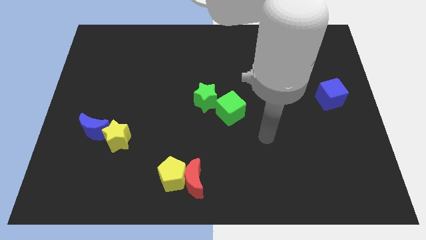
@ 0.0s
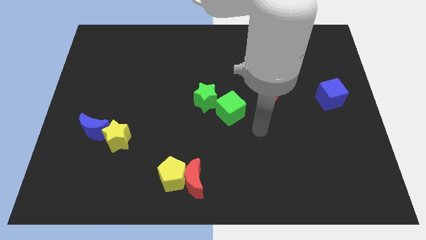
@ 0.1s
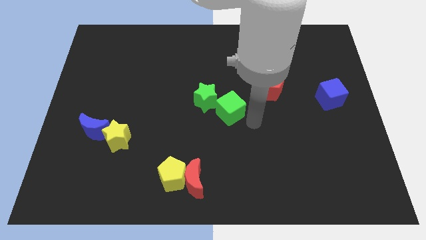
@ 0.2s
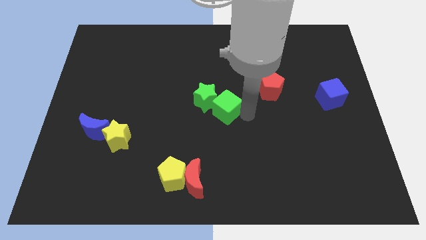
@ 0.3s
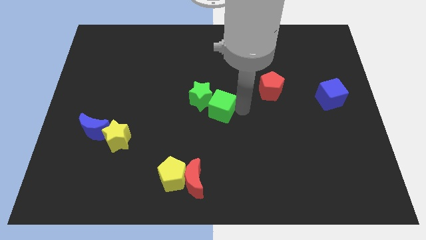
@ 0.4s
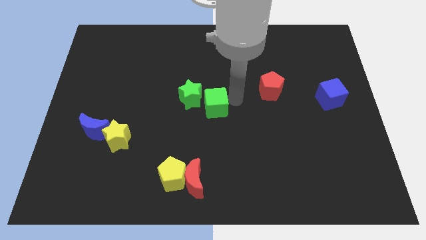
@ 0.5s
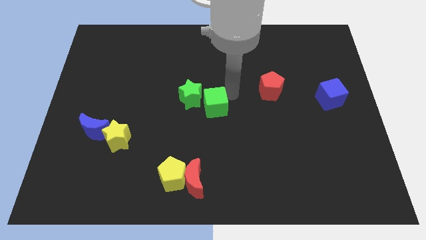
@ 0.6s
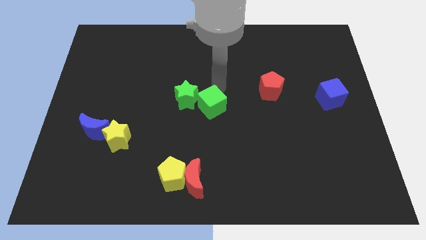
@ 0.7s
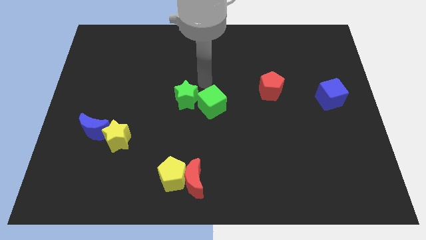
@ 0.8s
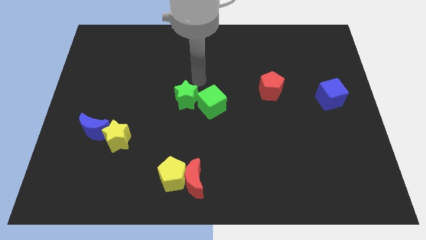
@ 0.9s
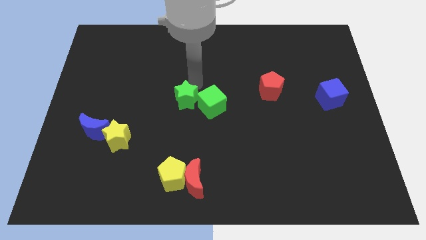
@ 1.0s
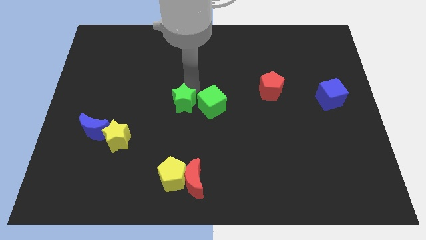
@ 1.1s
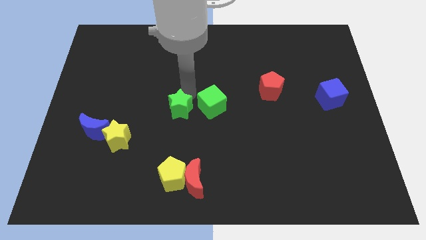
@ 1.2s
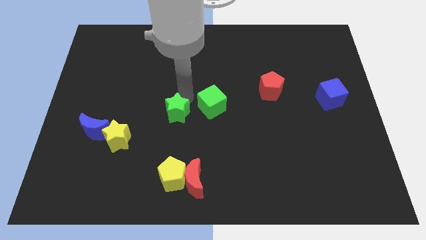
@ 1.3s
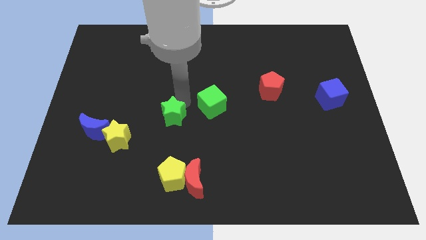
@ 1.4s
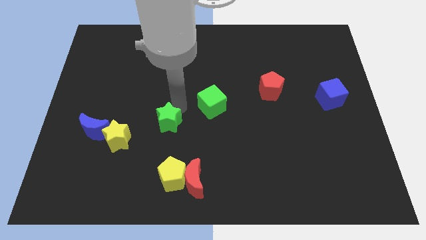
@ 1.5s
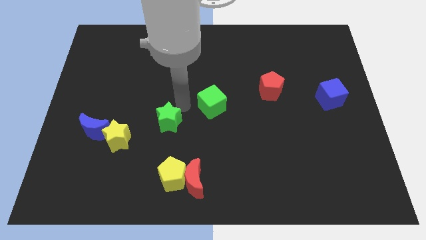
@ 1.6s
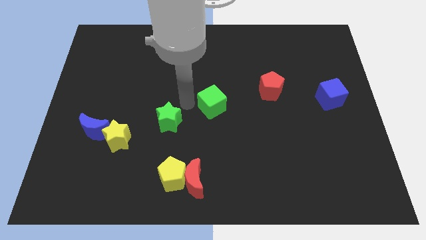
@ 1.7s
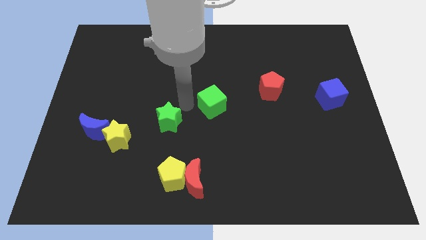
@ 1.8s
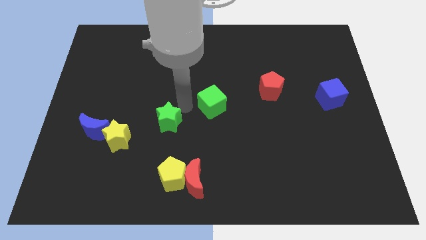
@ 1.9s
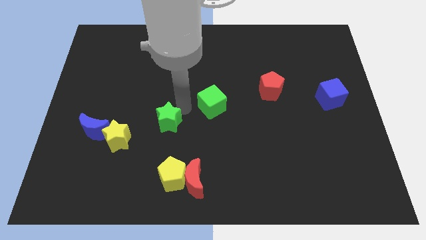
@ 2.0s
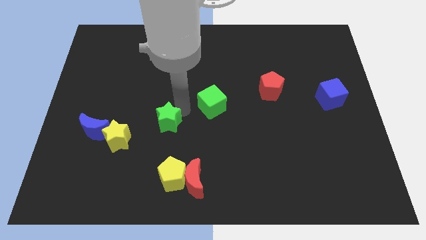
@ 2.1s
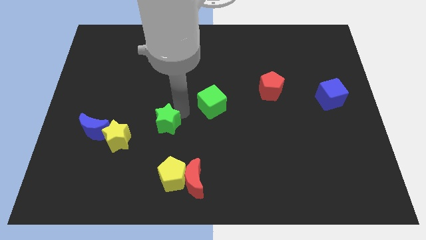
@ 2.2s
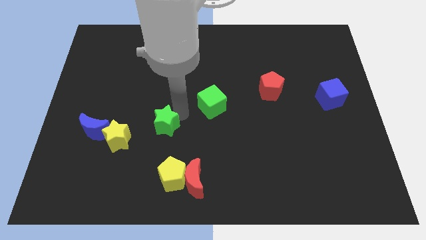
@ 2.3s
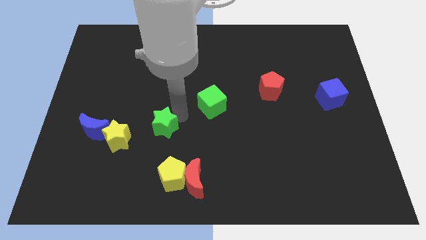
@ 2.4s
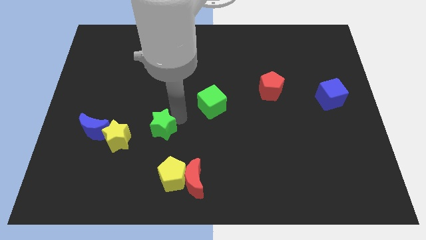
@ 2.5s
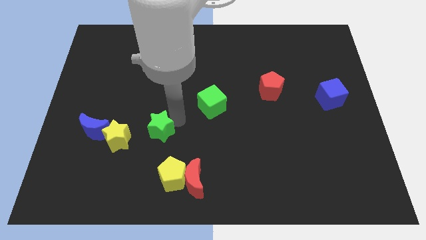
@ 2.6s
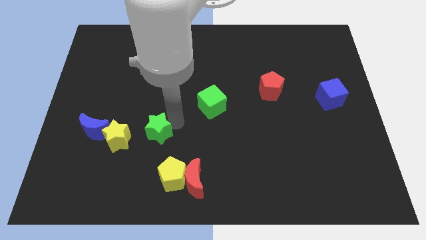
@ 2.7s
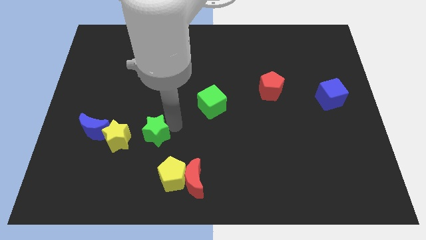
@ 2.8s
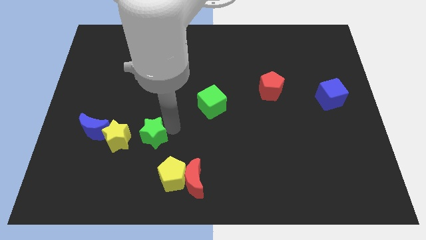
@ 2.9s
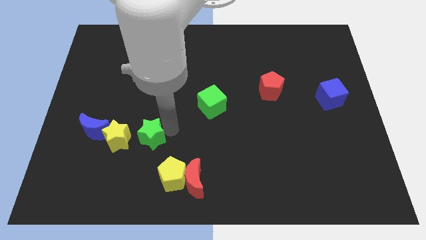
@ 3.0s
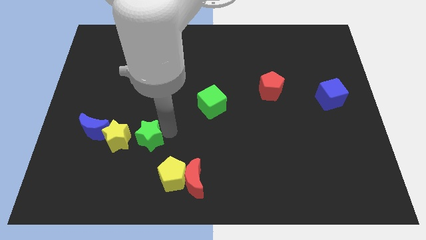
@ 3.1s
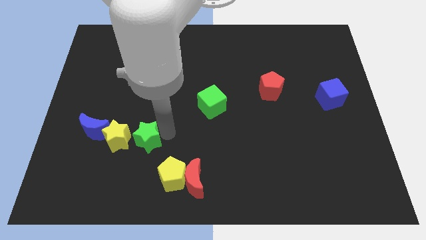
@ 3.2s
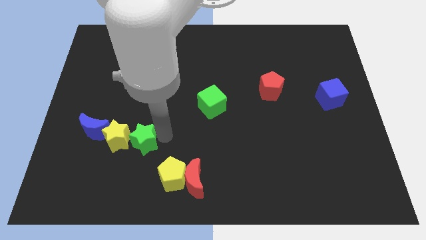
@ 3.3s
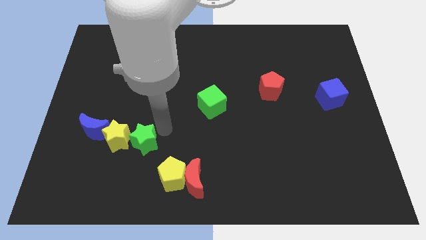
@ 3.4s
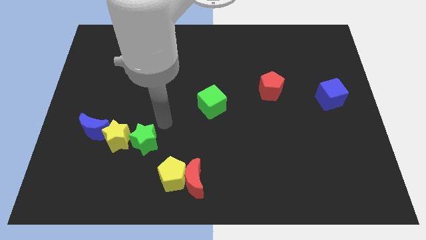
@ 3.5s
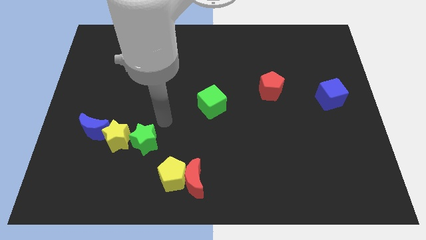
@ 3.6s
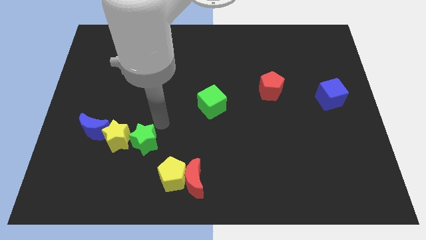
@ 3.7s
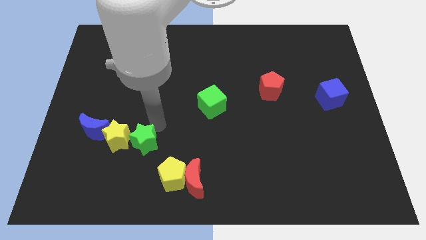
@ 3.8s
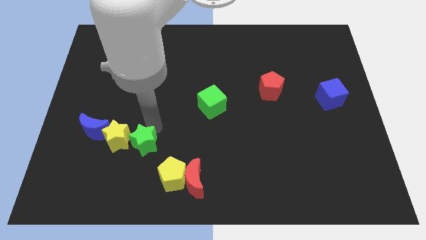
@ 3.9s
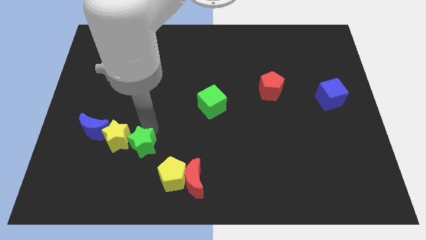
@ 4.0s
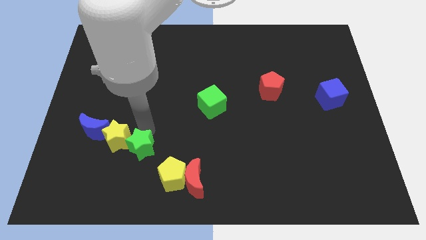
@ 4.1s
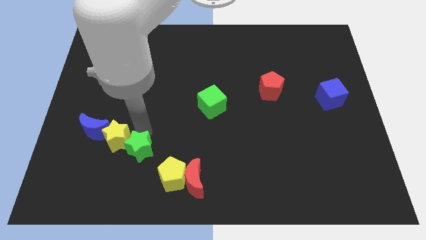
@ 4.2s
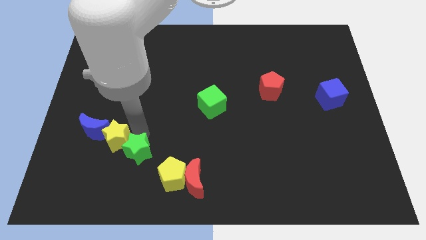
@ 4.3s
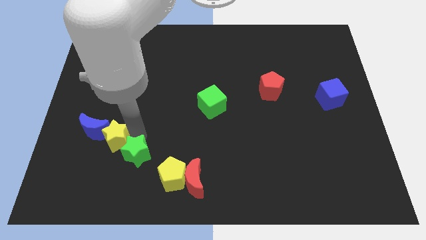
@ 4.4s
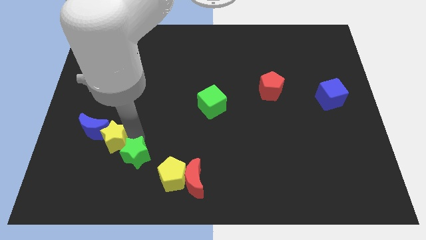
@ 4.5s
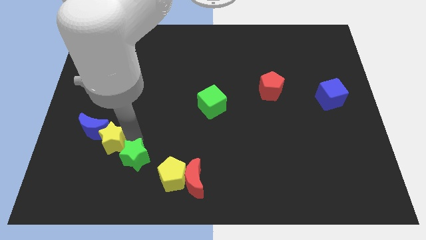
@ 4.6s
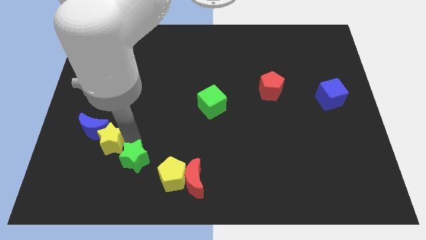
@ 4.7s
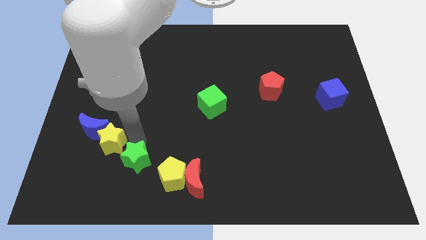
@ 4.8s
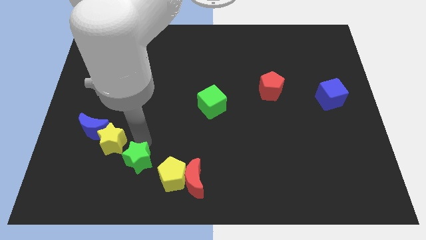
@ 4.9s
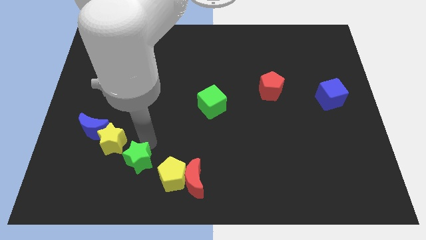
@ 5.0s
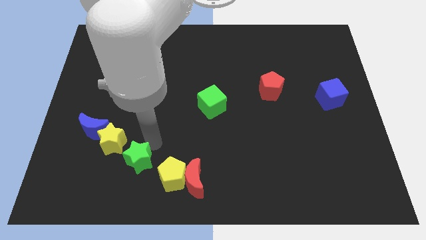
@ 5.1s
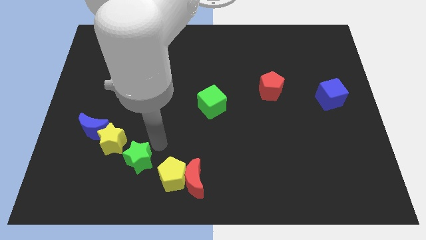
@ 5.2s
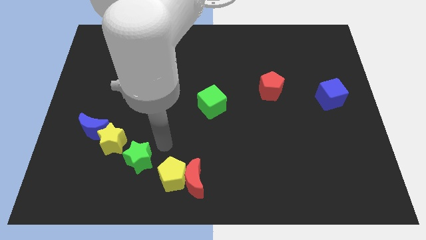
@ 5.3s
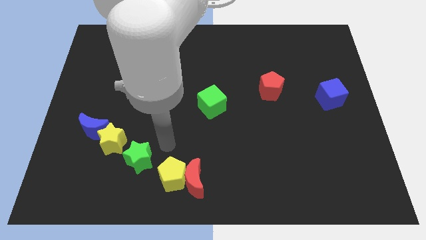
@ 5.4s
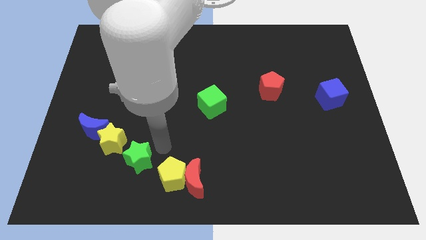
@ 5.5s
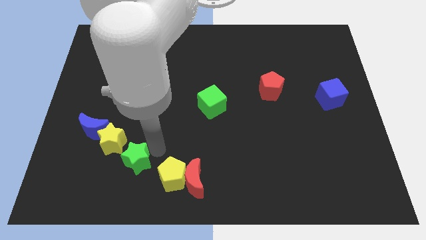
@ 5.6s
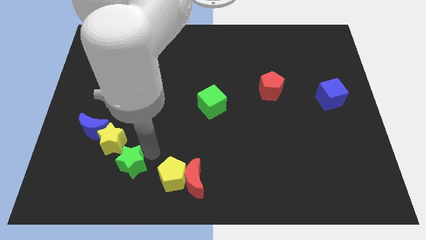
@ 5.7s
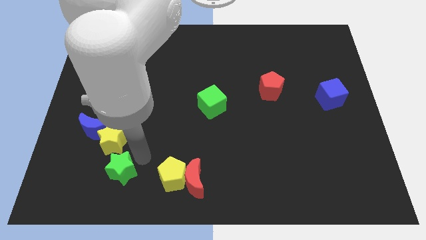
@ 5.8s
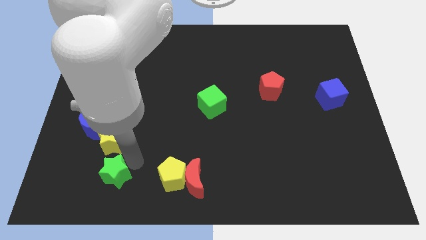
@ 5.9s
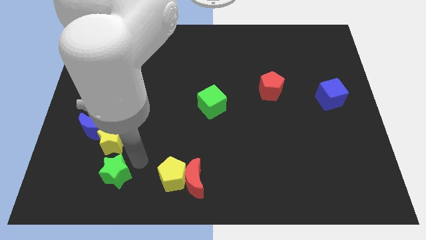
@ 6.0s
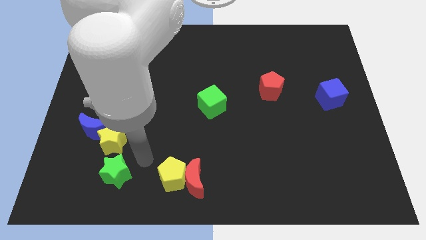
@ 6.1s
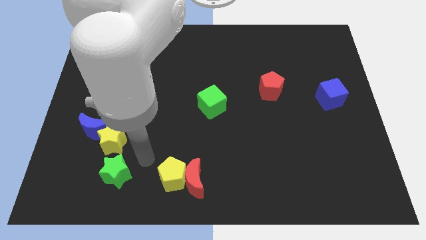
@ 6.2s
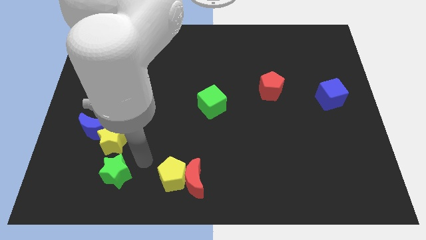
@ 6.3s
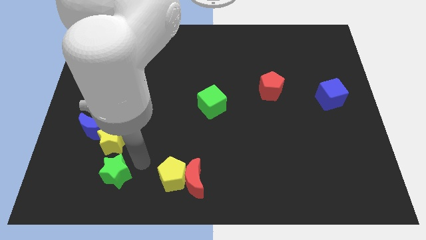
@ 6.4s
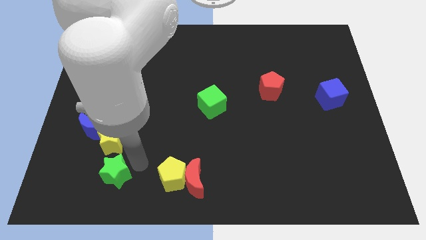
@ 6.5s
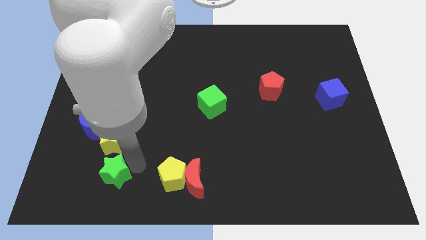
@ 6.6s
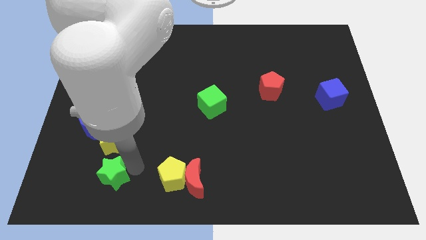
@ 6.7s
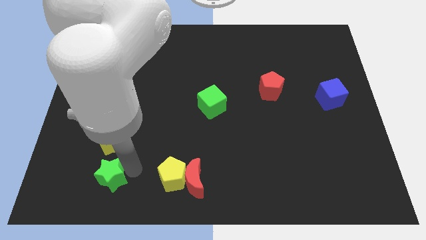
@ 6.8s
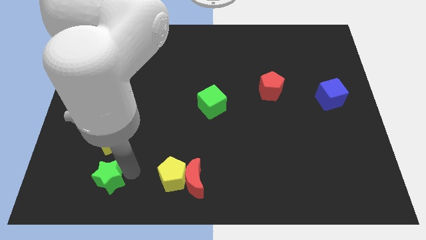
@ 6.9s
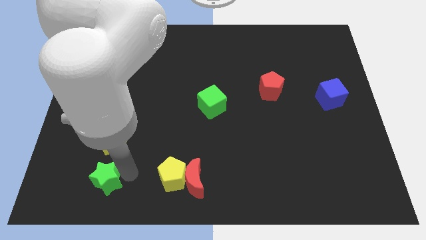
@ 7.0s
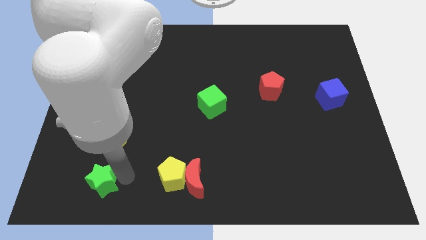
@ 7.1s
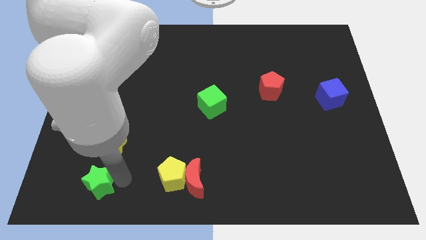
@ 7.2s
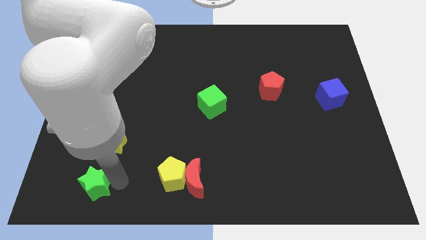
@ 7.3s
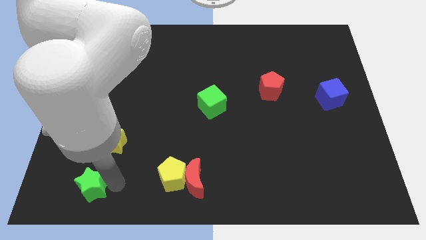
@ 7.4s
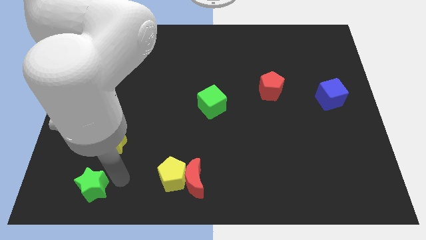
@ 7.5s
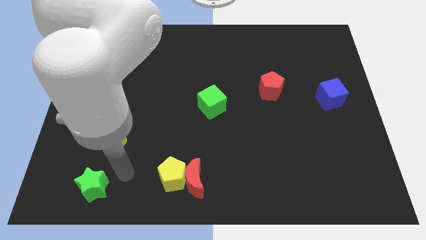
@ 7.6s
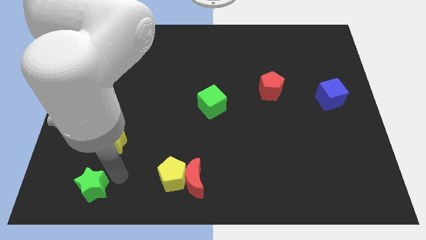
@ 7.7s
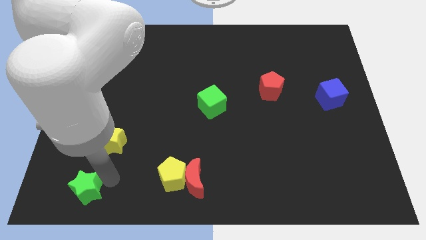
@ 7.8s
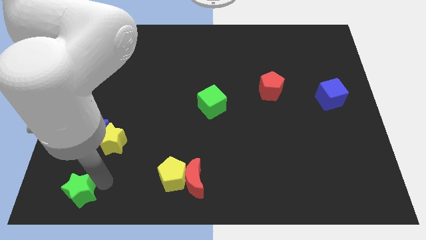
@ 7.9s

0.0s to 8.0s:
push the green star to the bottom left of the board
